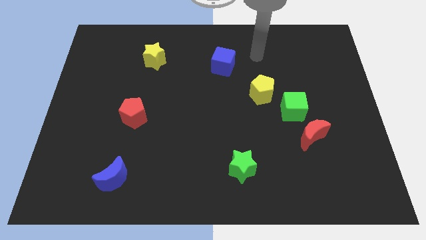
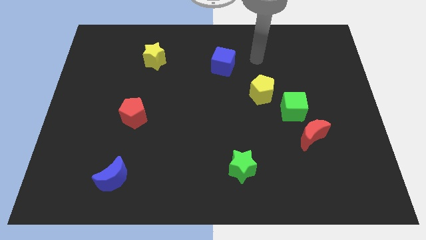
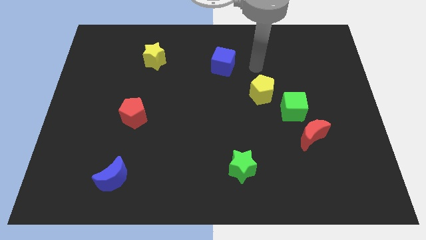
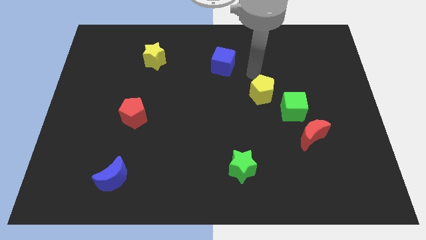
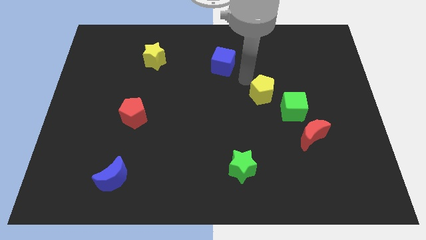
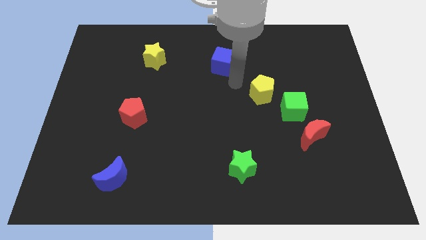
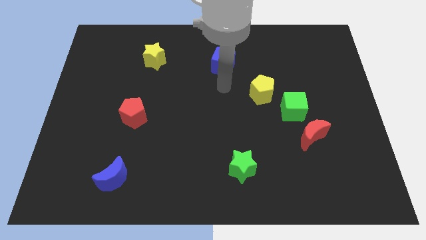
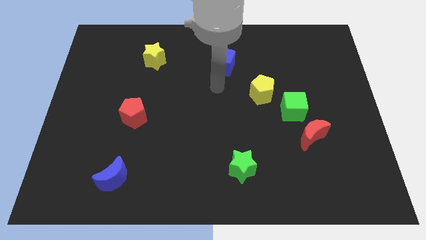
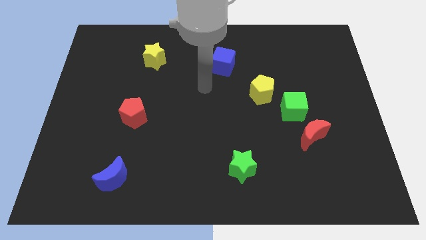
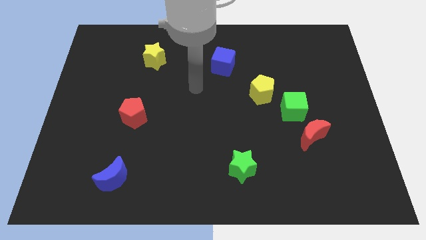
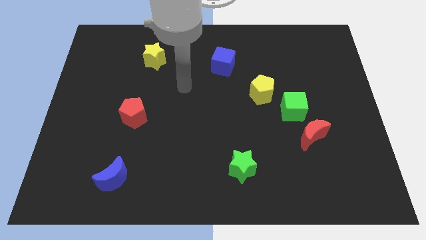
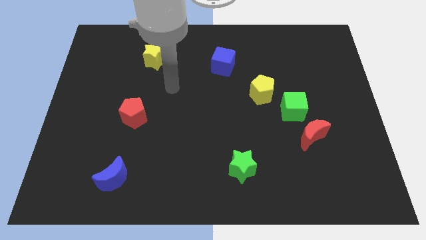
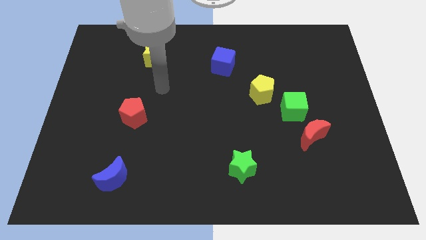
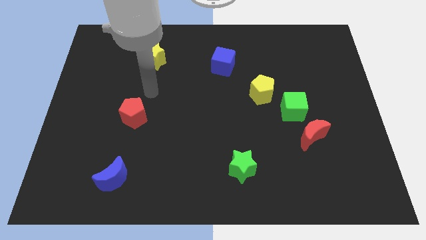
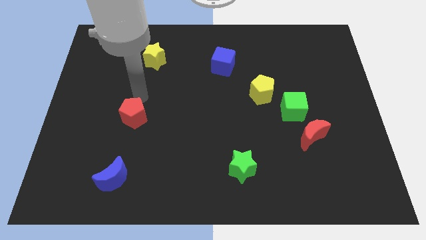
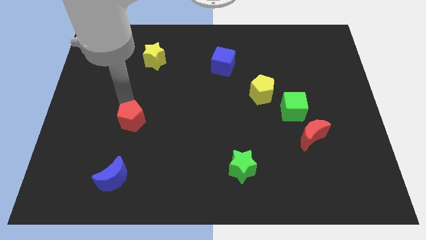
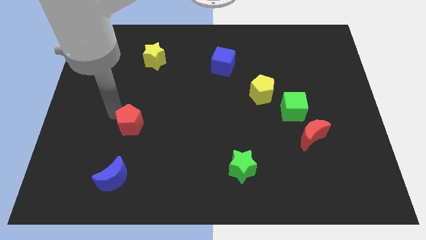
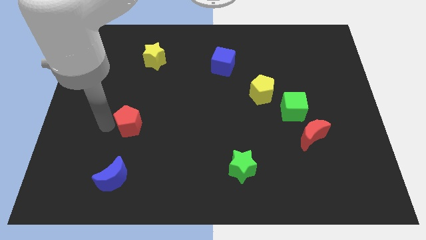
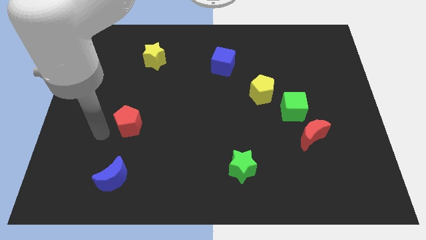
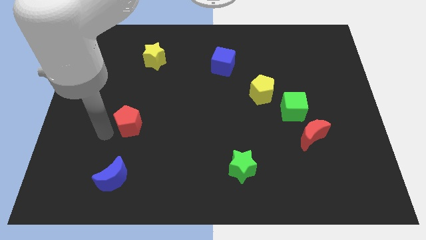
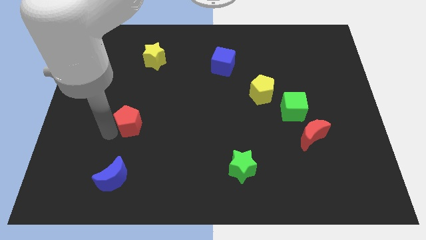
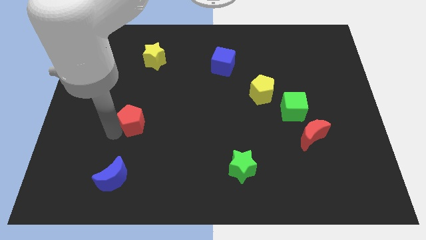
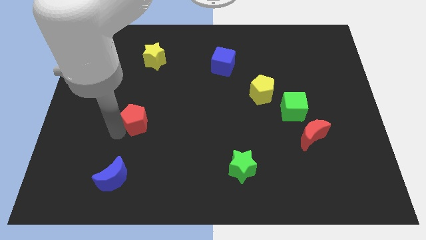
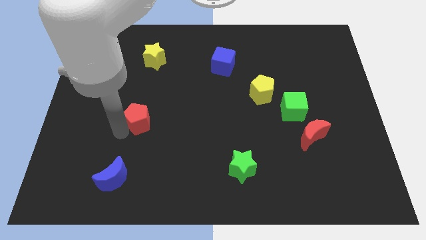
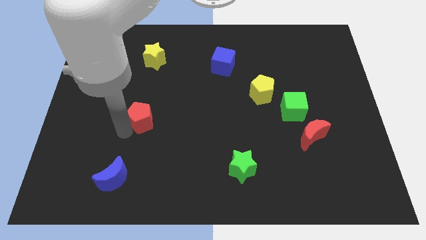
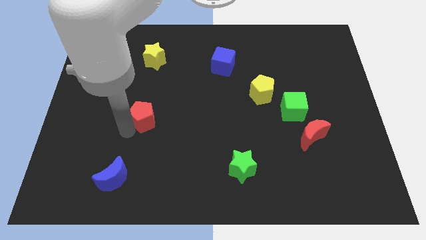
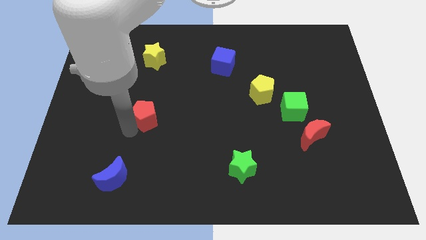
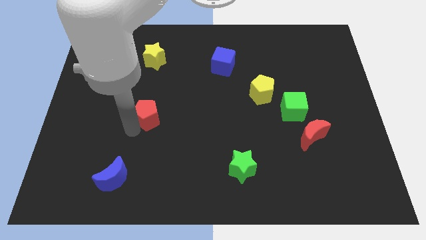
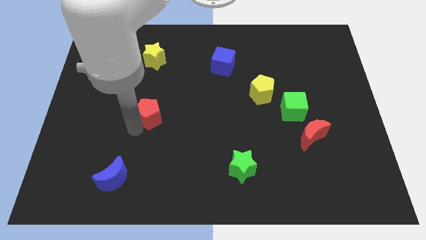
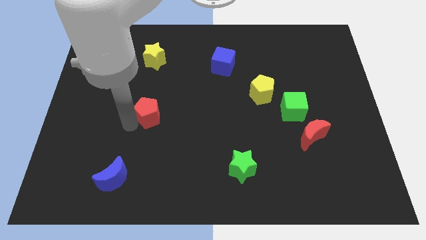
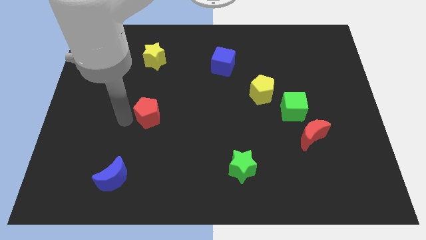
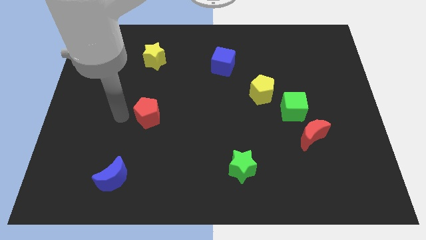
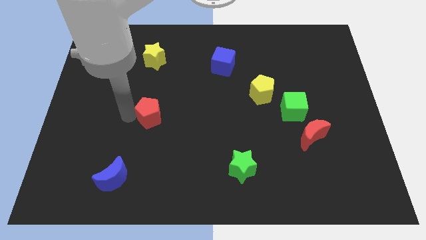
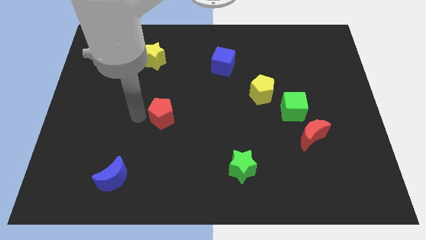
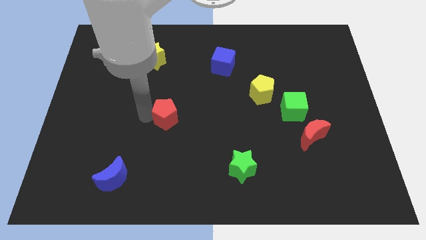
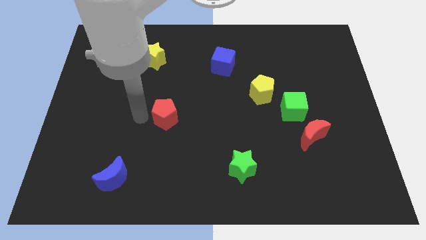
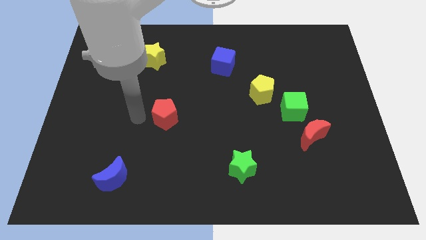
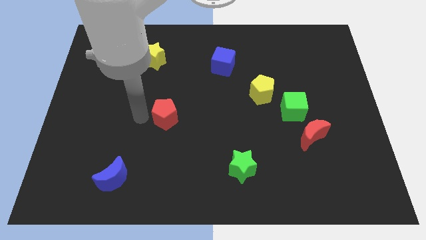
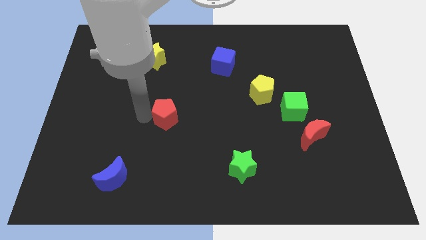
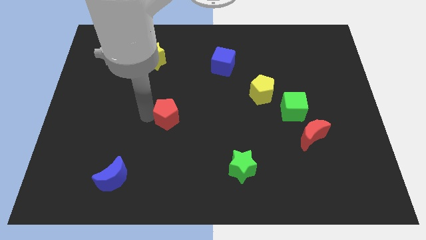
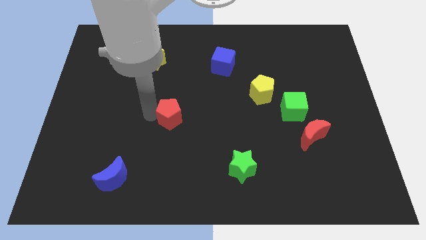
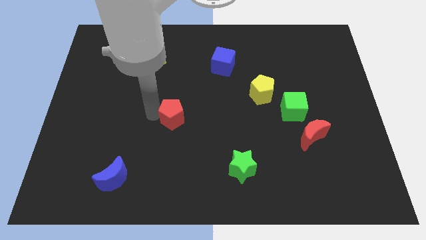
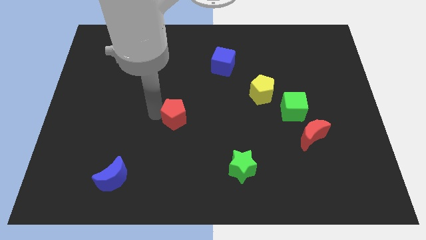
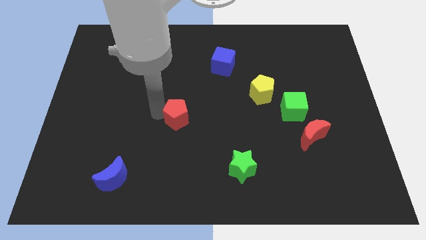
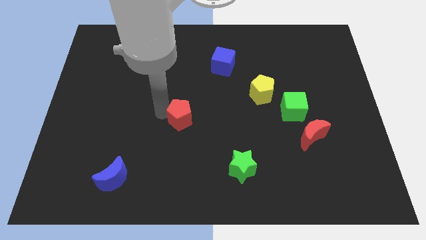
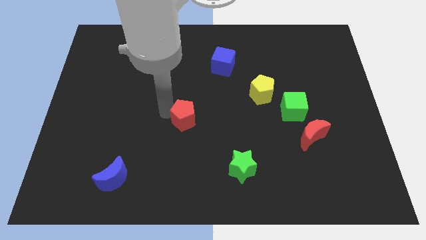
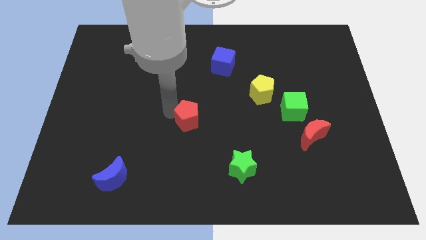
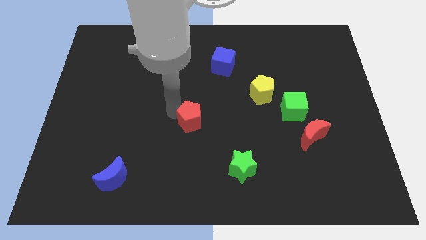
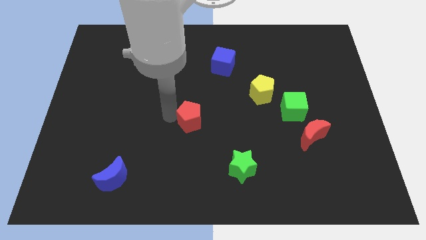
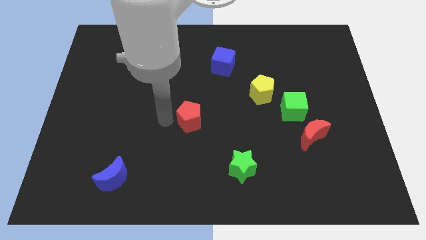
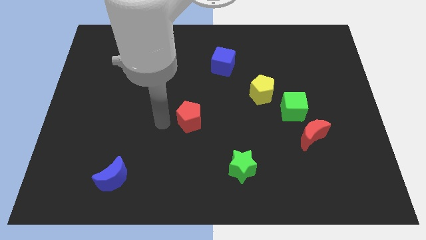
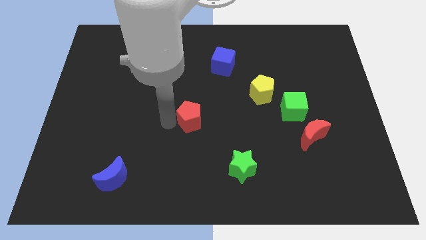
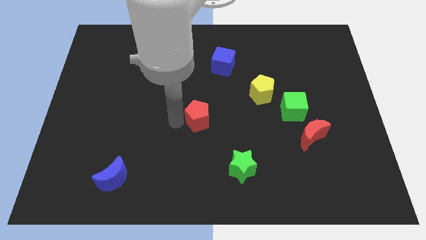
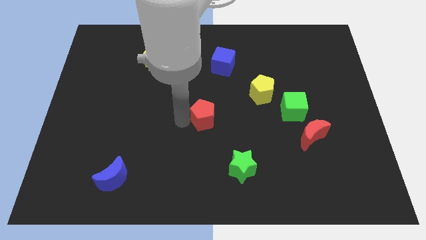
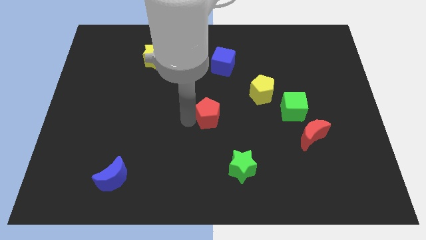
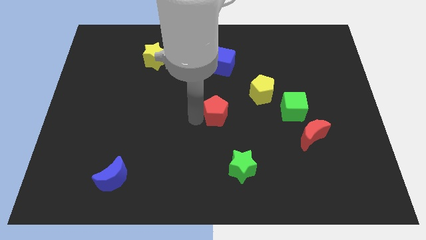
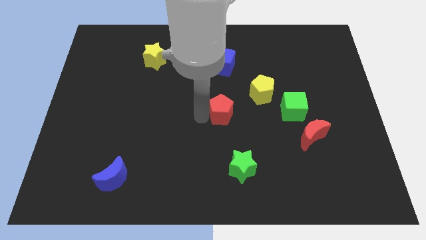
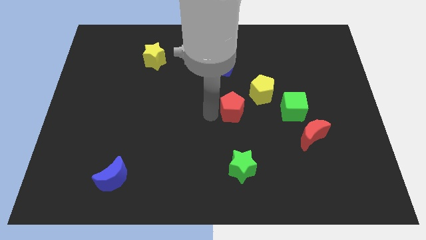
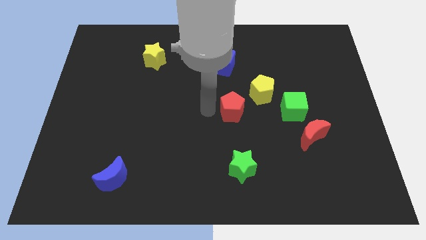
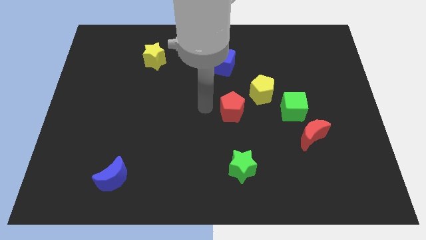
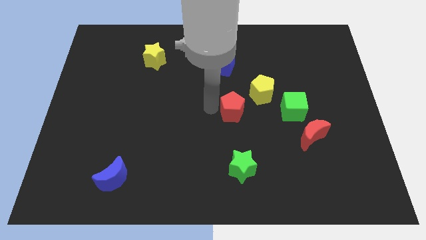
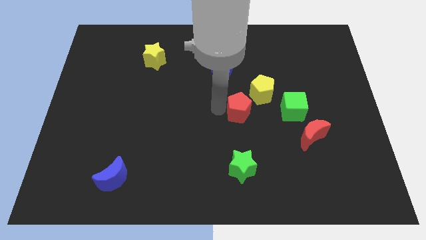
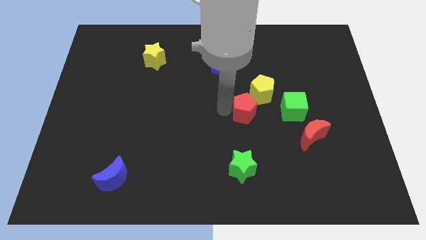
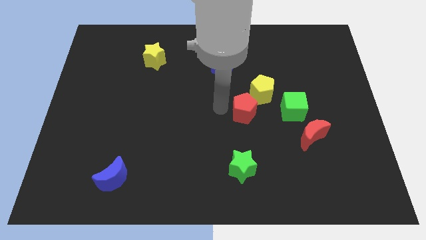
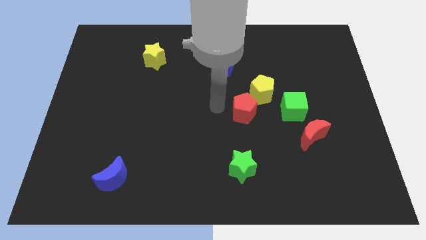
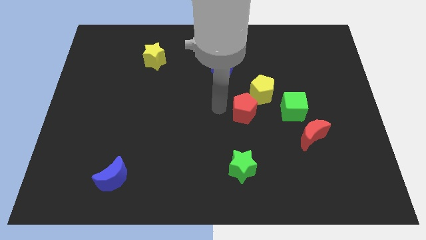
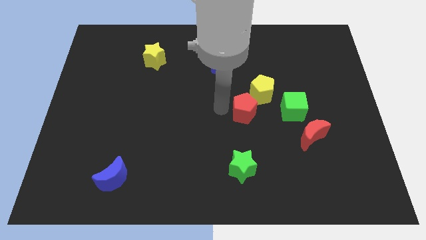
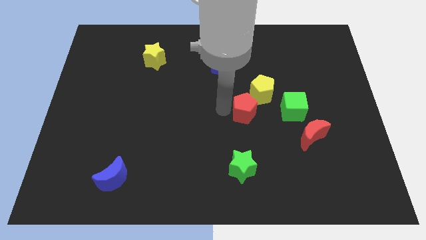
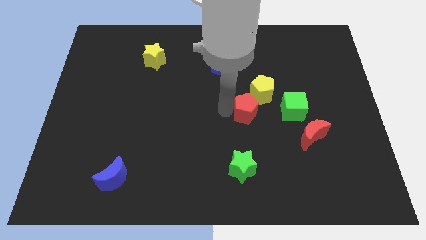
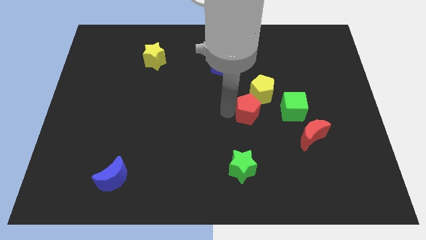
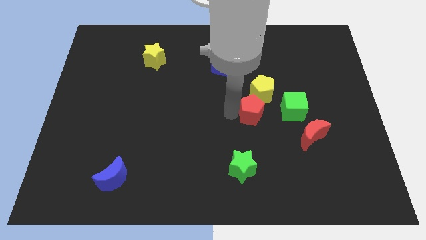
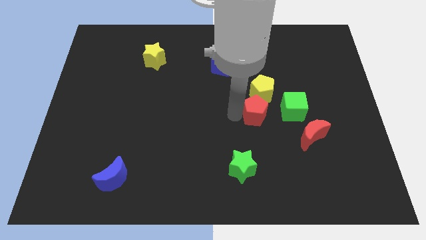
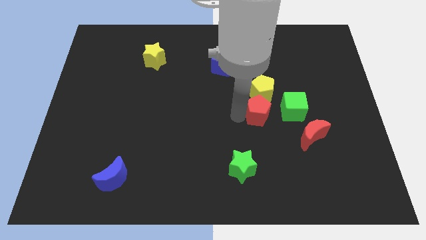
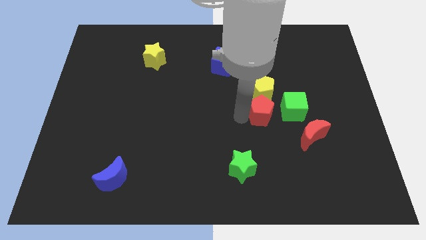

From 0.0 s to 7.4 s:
move the red pentagon to the top left side of the red moon
